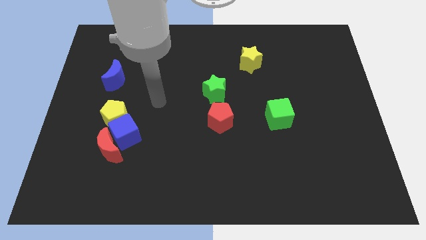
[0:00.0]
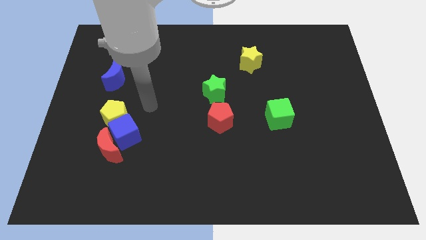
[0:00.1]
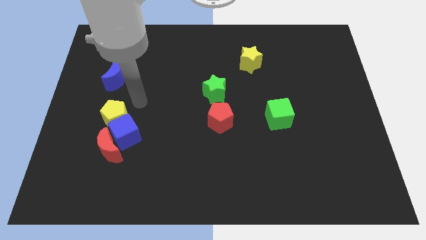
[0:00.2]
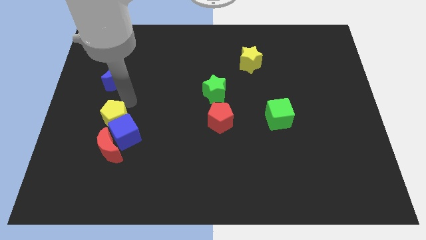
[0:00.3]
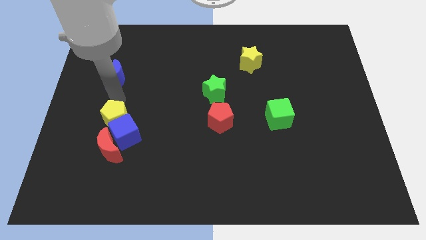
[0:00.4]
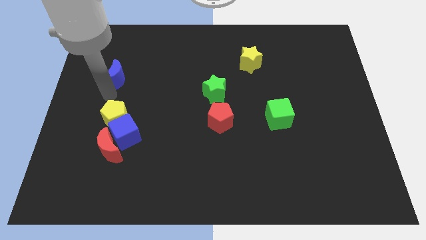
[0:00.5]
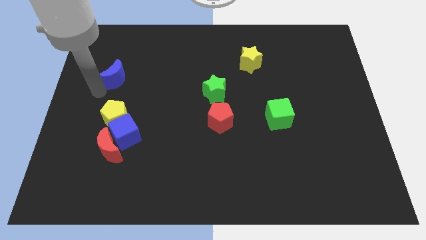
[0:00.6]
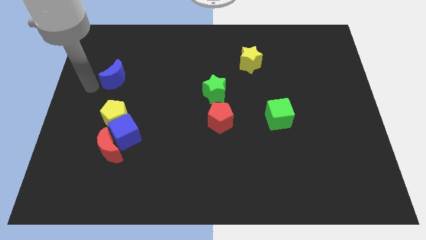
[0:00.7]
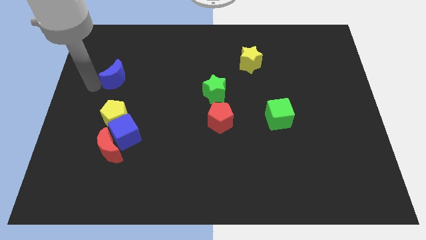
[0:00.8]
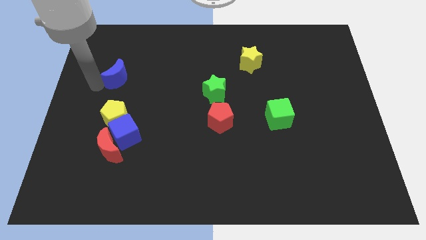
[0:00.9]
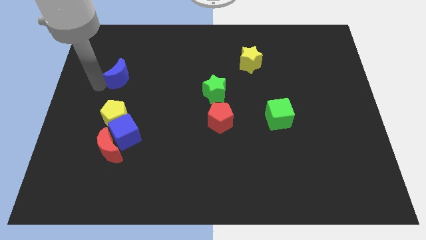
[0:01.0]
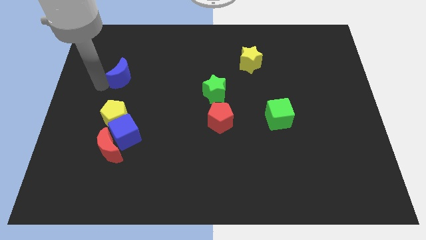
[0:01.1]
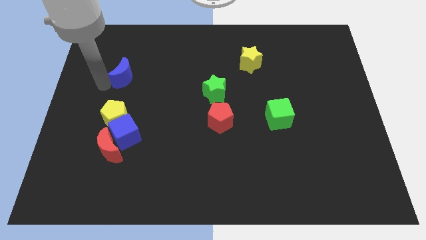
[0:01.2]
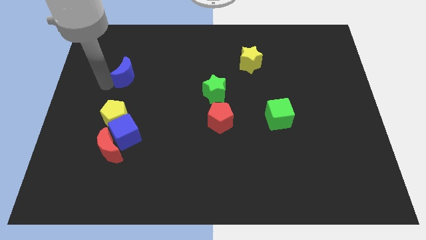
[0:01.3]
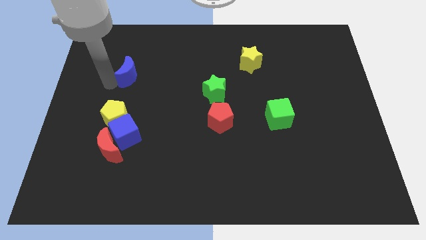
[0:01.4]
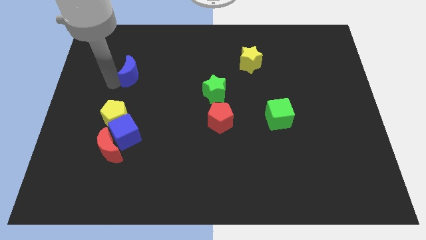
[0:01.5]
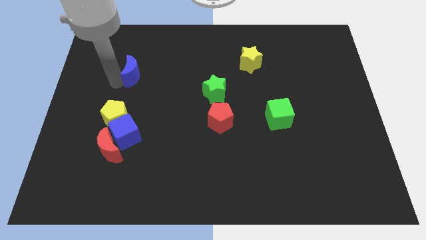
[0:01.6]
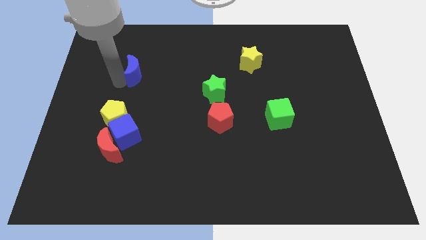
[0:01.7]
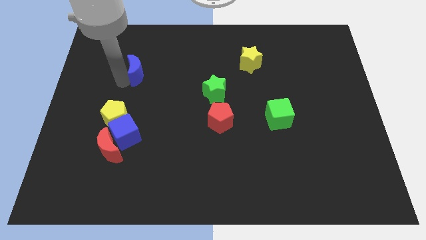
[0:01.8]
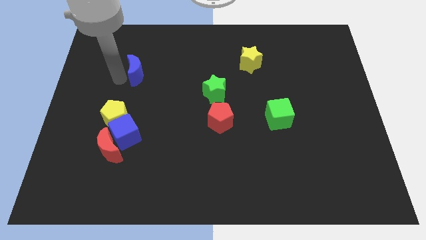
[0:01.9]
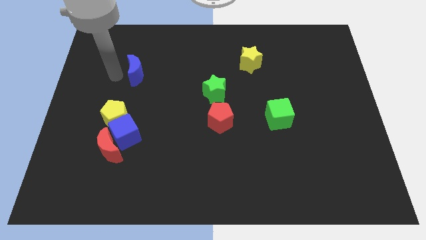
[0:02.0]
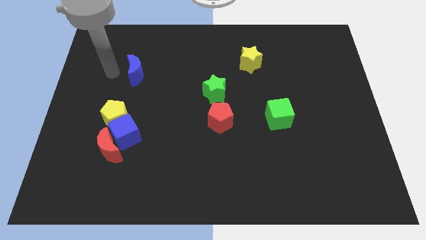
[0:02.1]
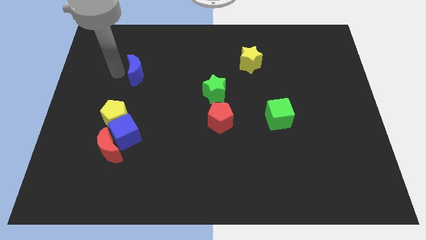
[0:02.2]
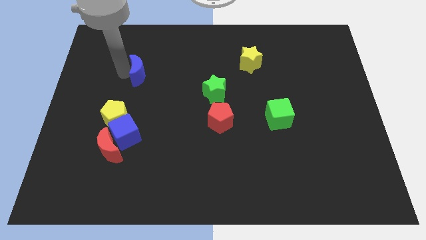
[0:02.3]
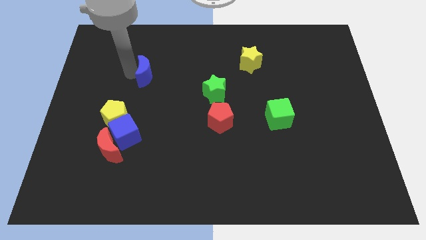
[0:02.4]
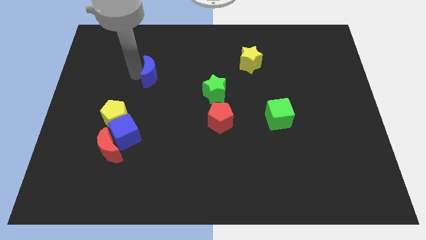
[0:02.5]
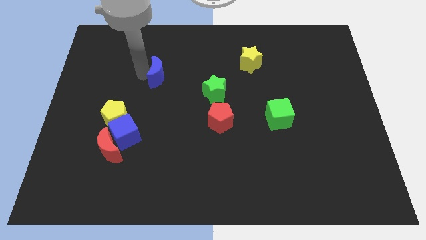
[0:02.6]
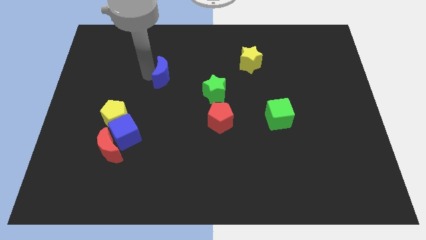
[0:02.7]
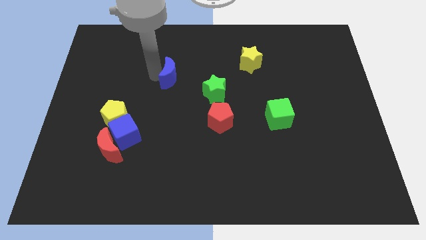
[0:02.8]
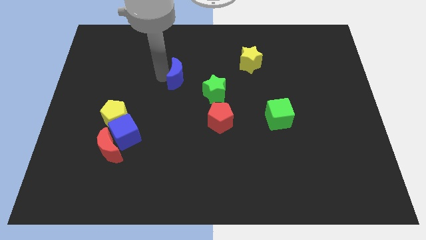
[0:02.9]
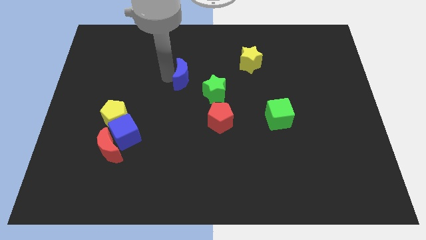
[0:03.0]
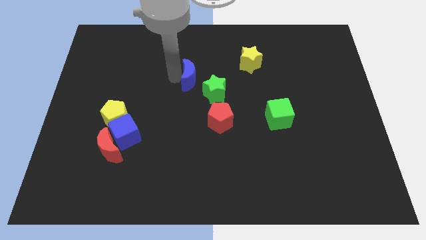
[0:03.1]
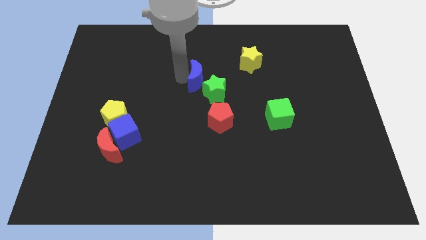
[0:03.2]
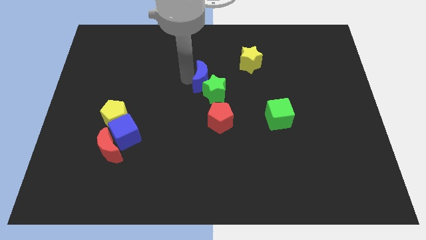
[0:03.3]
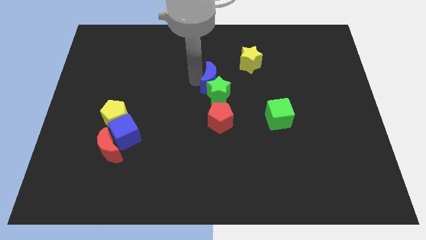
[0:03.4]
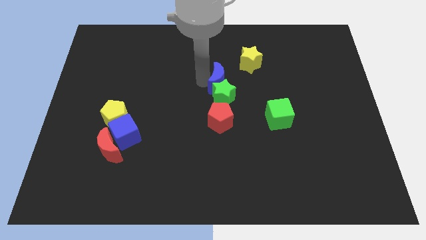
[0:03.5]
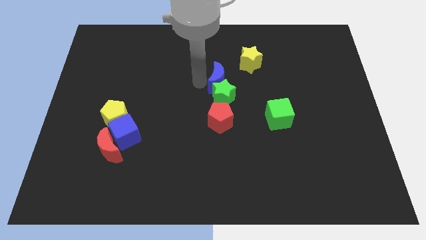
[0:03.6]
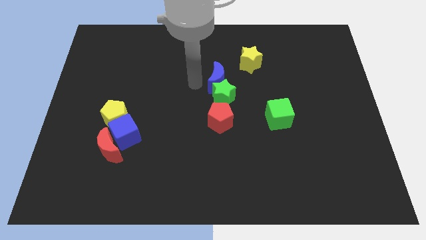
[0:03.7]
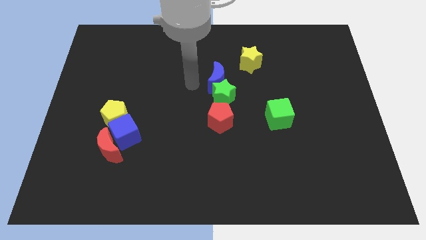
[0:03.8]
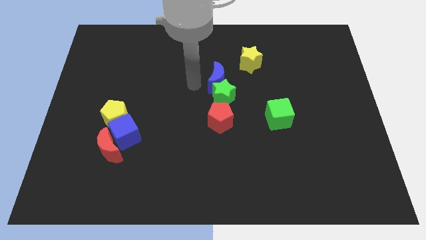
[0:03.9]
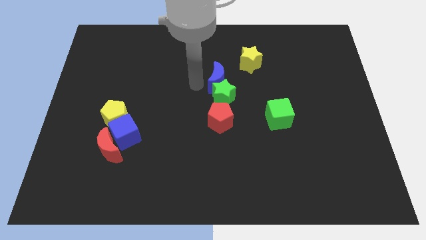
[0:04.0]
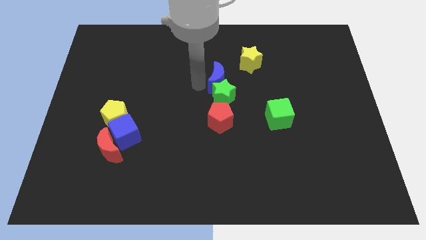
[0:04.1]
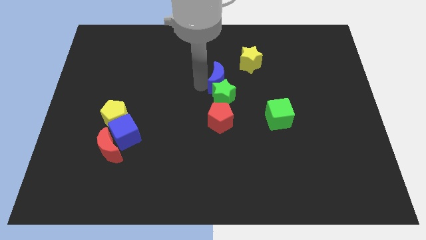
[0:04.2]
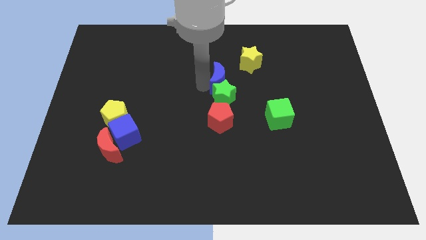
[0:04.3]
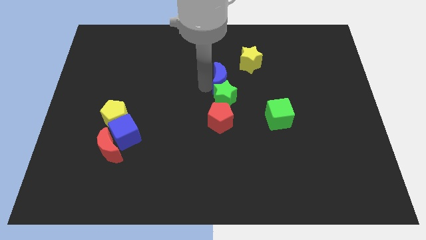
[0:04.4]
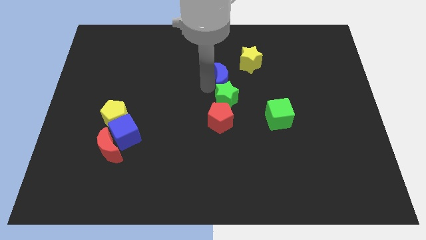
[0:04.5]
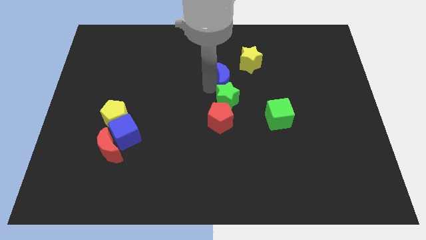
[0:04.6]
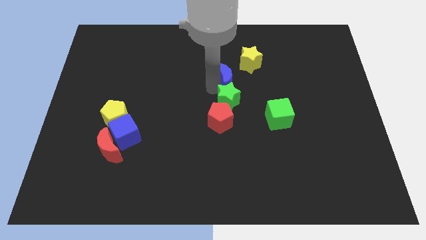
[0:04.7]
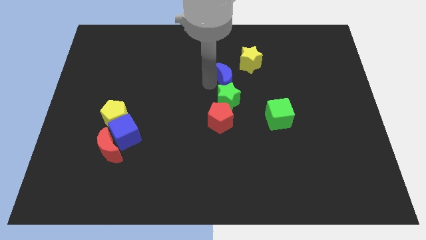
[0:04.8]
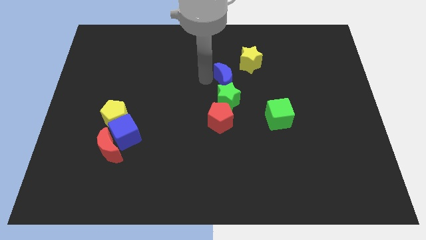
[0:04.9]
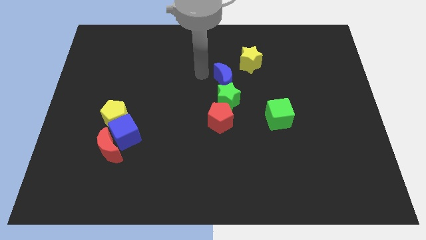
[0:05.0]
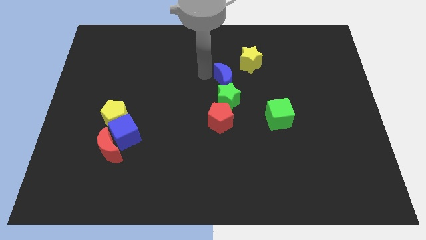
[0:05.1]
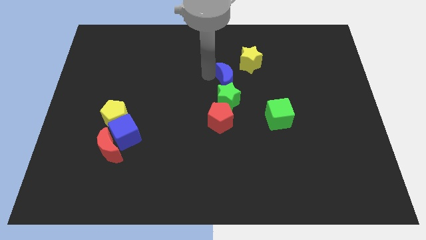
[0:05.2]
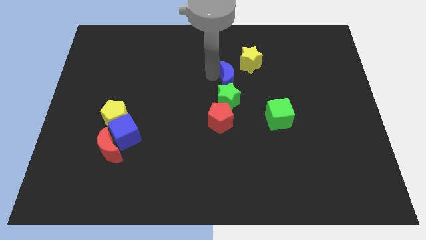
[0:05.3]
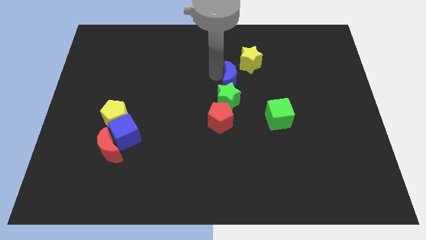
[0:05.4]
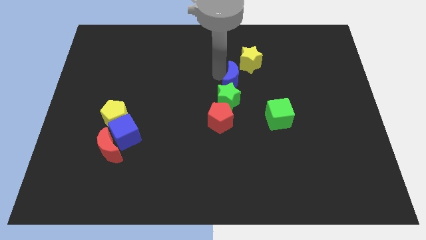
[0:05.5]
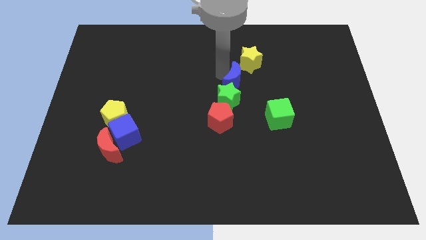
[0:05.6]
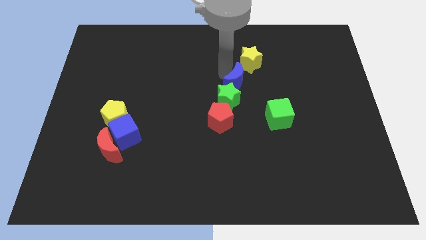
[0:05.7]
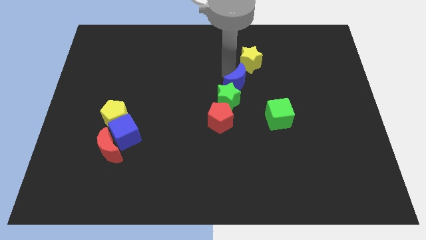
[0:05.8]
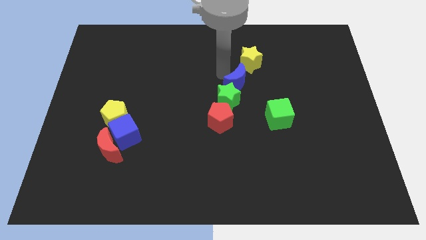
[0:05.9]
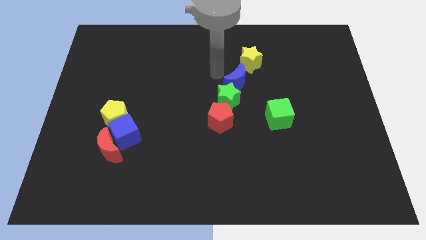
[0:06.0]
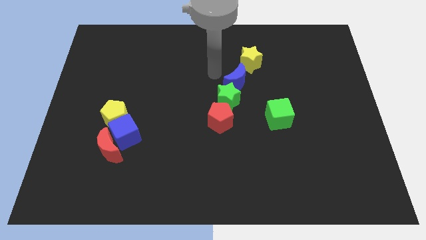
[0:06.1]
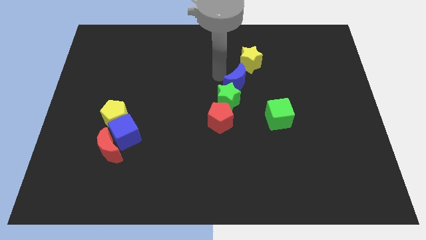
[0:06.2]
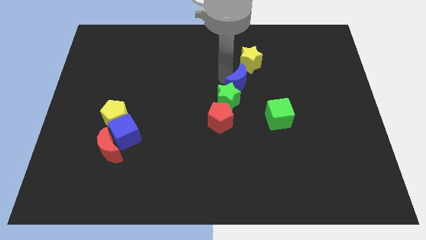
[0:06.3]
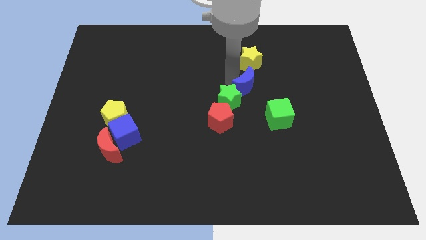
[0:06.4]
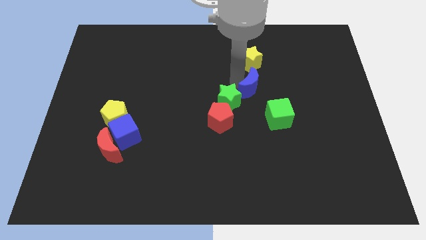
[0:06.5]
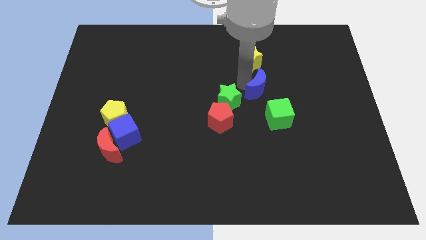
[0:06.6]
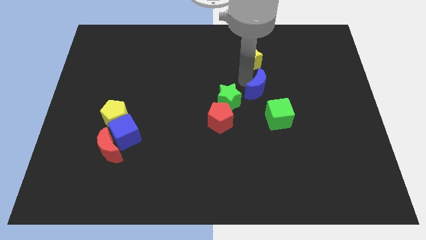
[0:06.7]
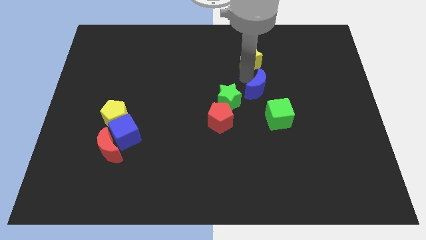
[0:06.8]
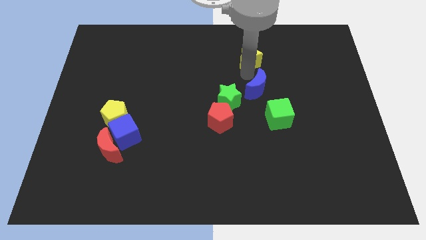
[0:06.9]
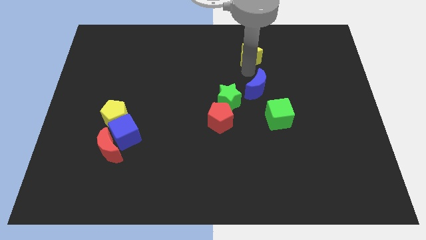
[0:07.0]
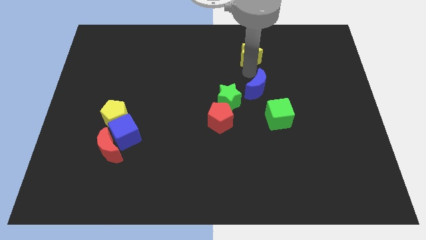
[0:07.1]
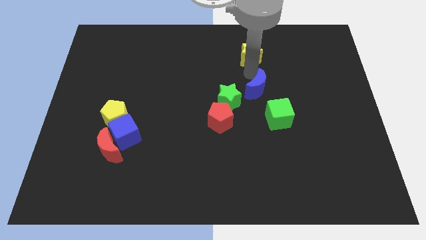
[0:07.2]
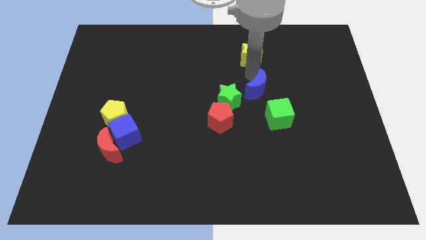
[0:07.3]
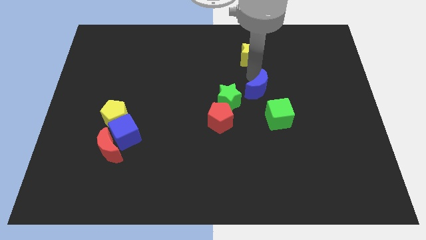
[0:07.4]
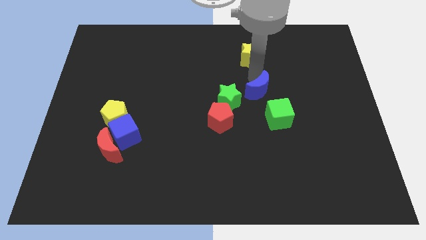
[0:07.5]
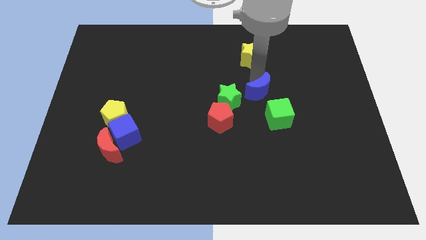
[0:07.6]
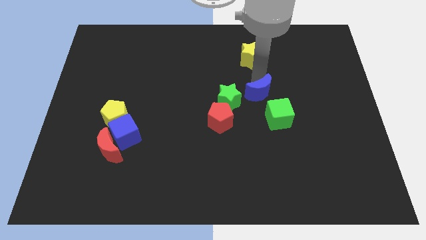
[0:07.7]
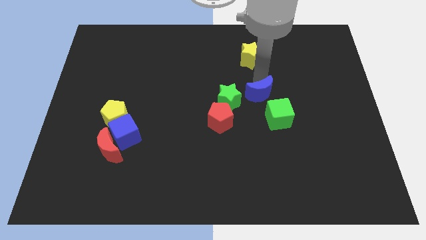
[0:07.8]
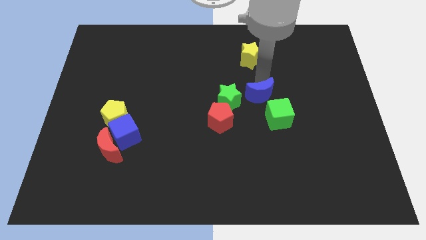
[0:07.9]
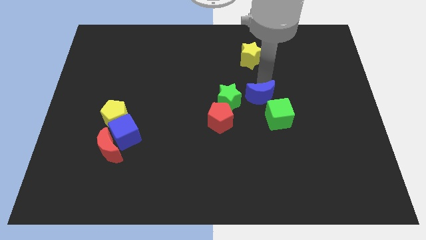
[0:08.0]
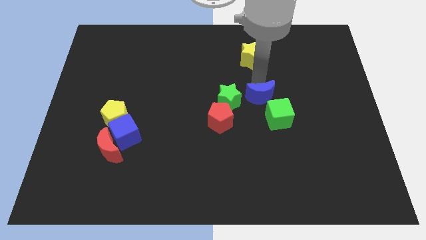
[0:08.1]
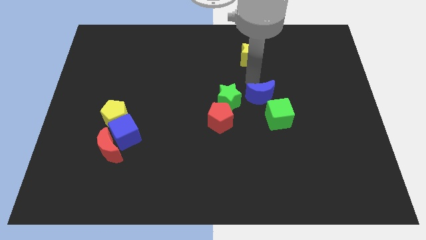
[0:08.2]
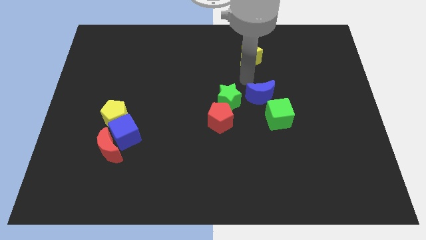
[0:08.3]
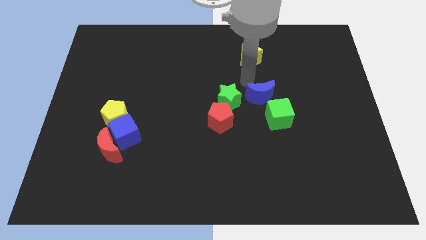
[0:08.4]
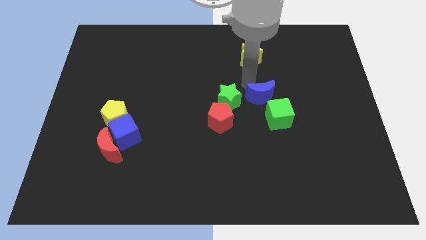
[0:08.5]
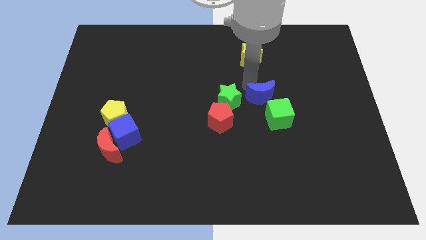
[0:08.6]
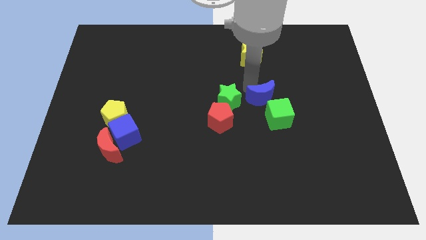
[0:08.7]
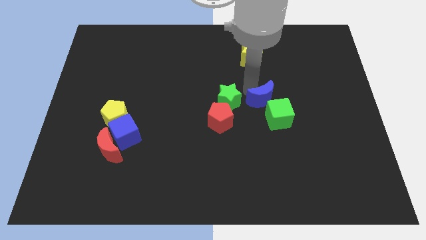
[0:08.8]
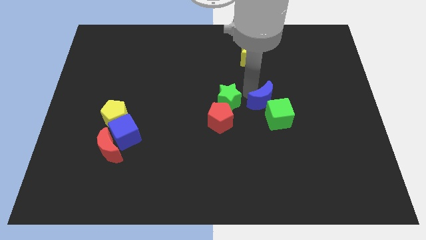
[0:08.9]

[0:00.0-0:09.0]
push the blue moon to the green cube
